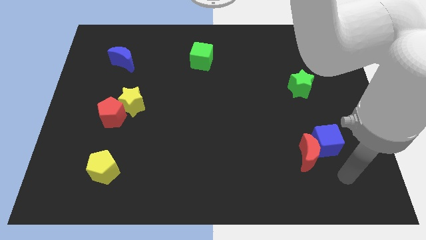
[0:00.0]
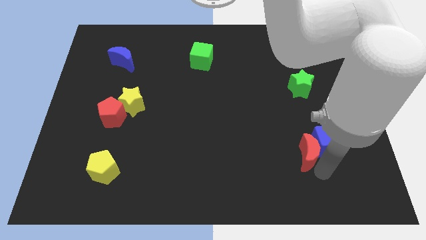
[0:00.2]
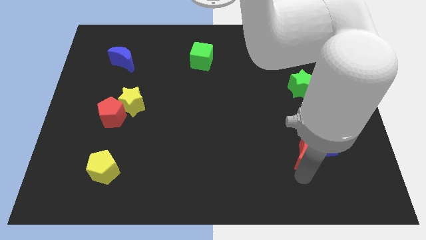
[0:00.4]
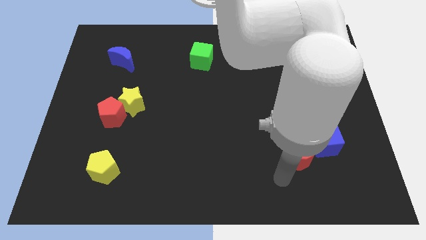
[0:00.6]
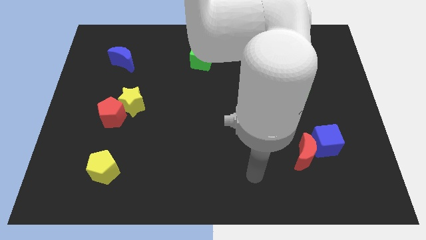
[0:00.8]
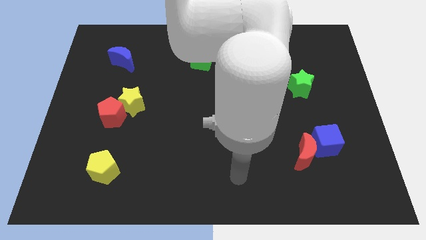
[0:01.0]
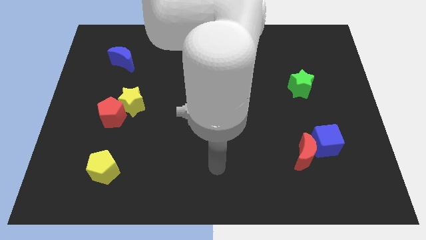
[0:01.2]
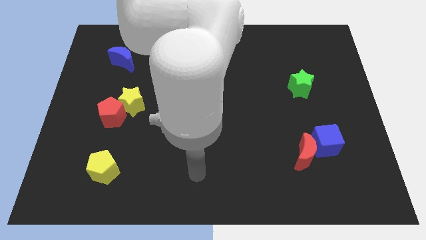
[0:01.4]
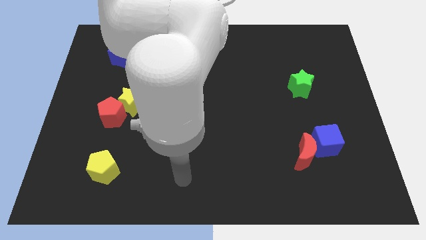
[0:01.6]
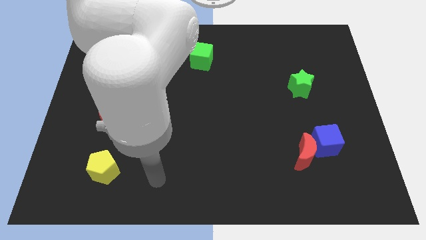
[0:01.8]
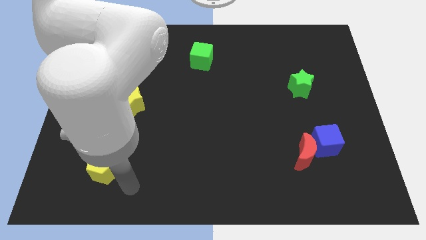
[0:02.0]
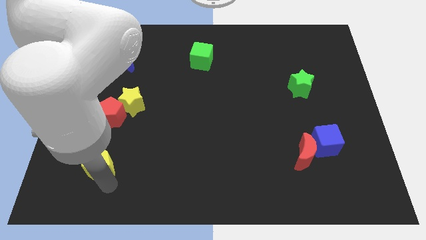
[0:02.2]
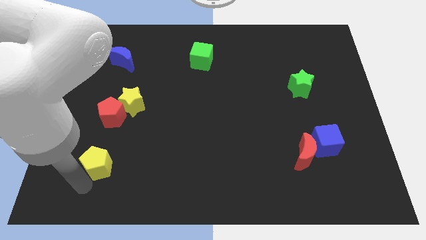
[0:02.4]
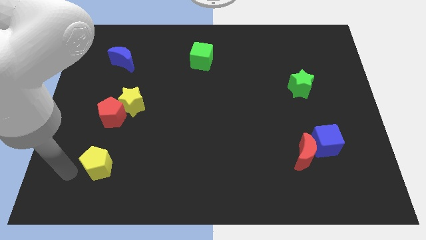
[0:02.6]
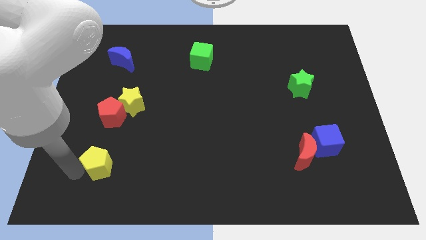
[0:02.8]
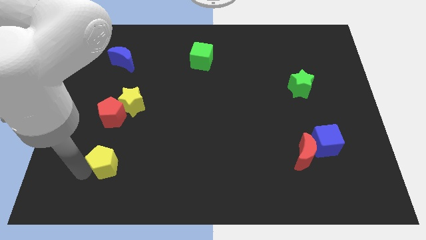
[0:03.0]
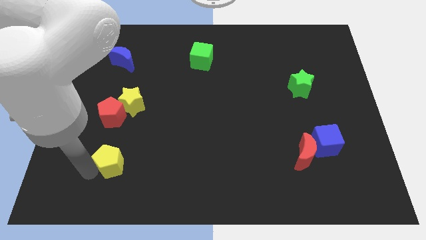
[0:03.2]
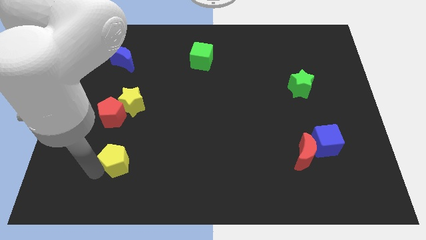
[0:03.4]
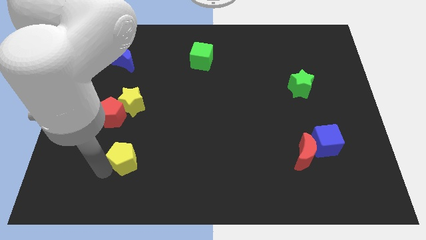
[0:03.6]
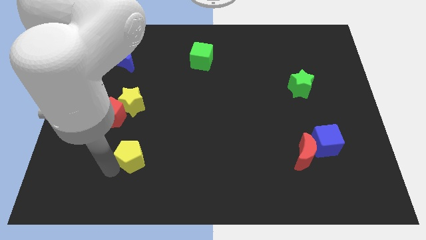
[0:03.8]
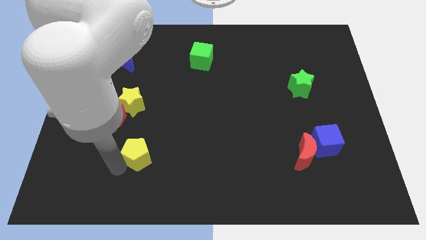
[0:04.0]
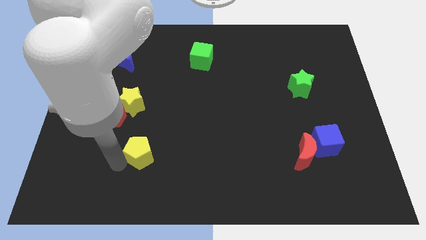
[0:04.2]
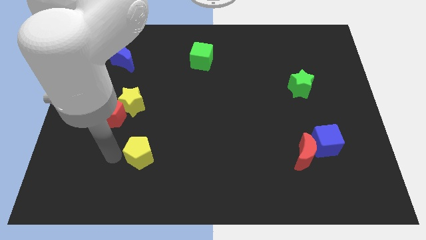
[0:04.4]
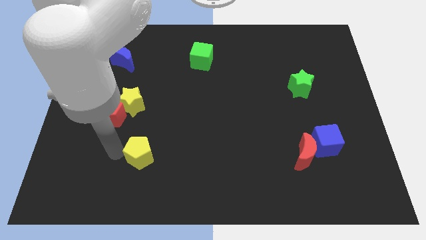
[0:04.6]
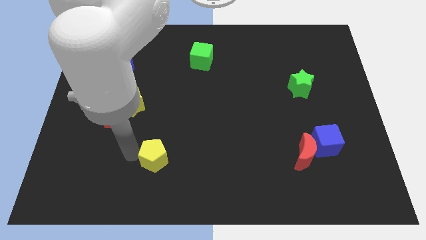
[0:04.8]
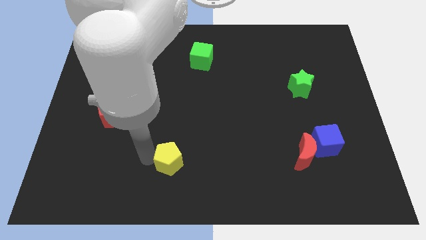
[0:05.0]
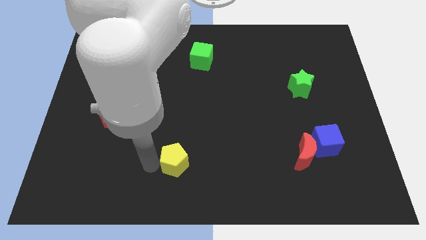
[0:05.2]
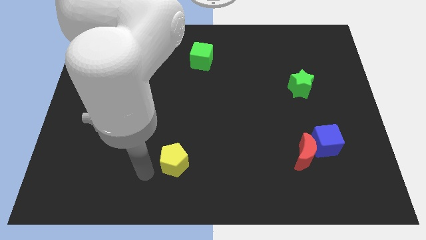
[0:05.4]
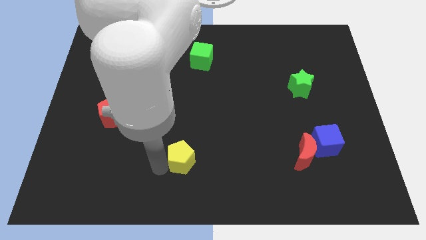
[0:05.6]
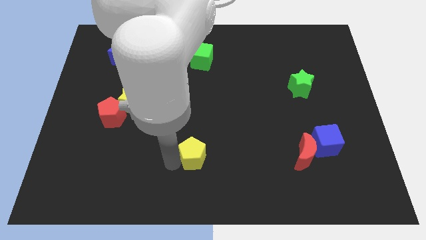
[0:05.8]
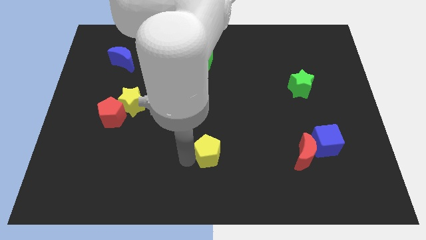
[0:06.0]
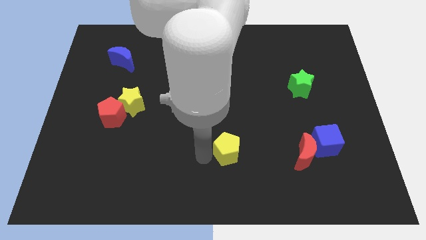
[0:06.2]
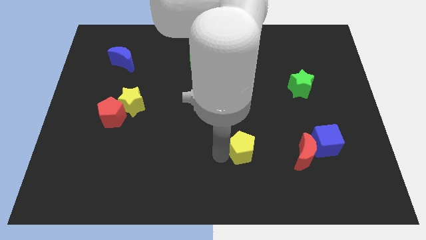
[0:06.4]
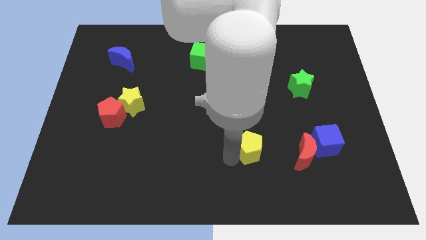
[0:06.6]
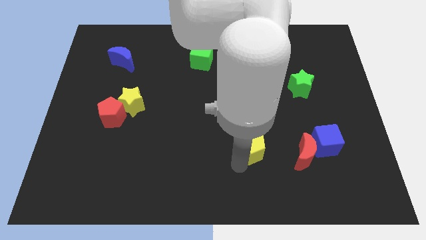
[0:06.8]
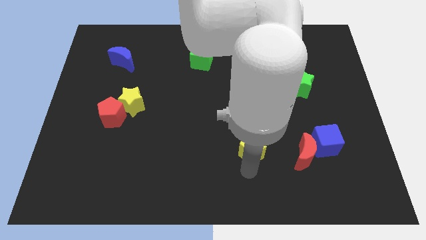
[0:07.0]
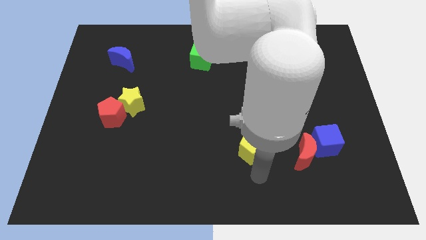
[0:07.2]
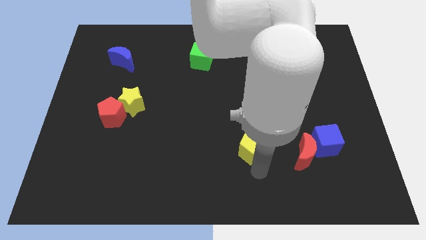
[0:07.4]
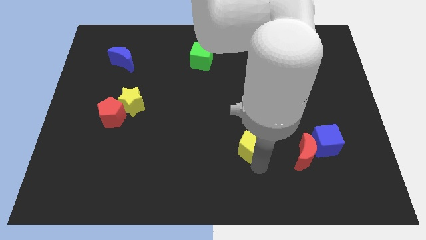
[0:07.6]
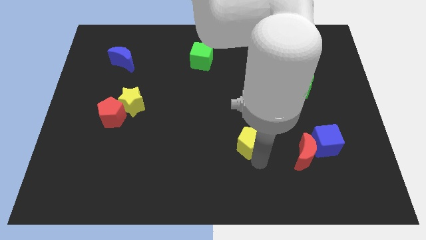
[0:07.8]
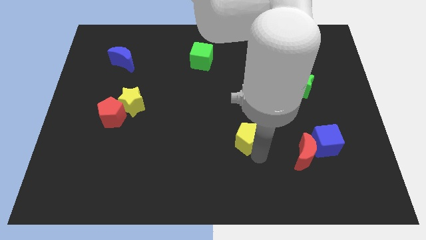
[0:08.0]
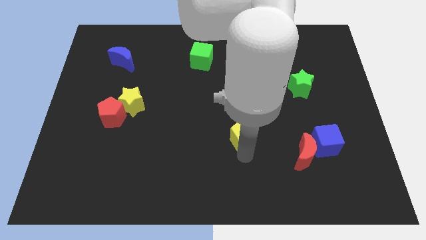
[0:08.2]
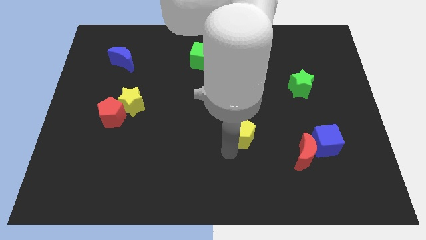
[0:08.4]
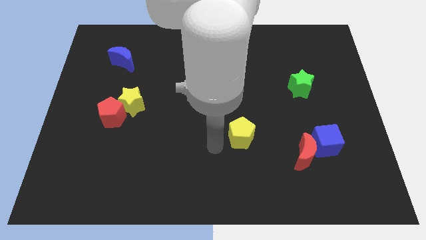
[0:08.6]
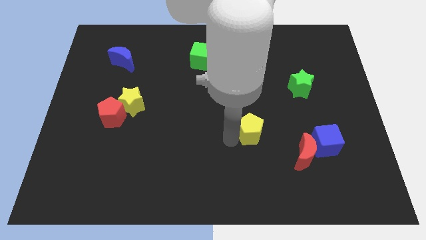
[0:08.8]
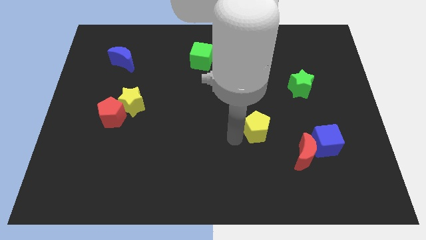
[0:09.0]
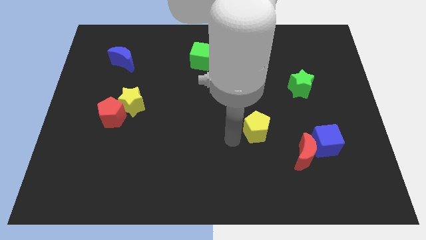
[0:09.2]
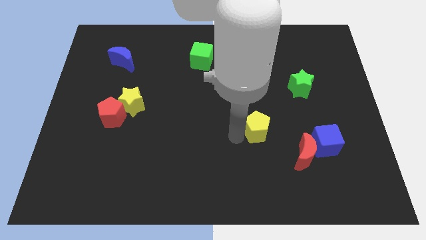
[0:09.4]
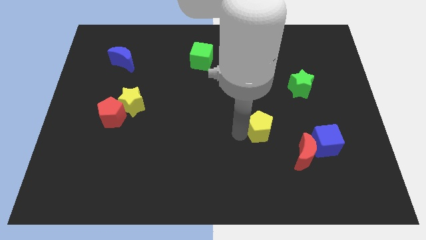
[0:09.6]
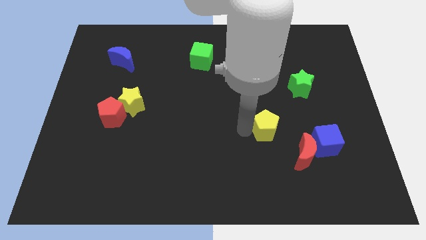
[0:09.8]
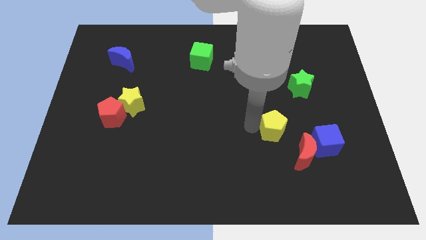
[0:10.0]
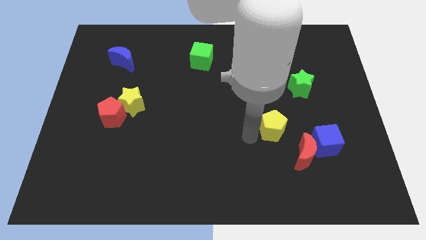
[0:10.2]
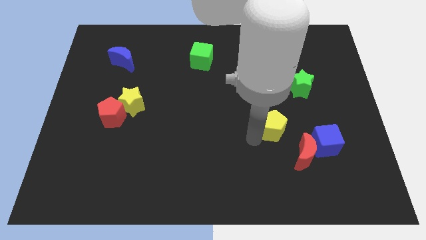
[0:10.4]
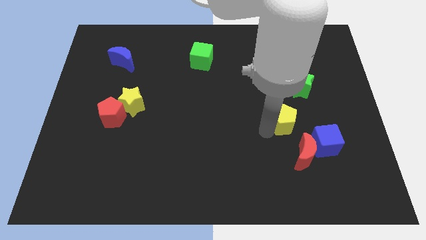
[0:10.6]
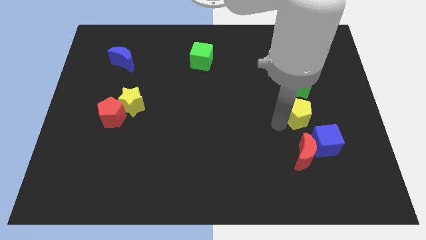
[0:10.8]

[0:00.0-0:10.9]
push the yellow pentagon to the top of the blue cube

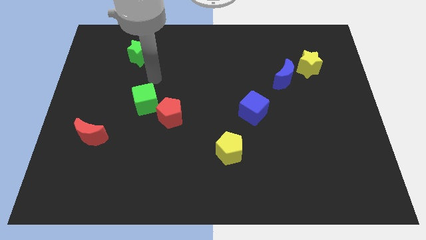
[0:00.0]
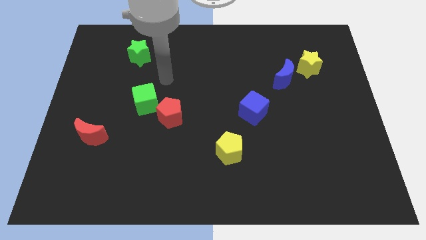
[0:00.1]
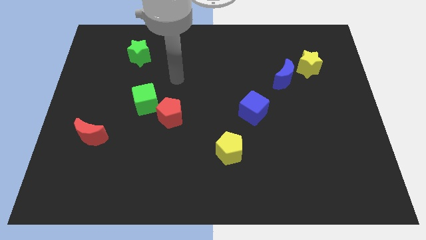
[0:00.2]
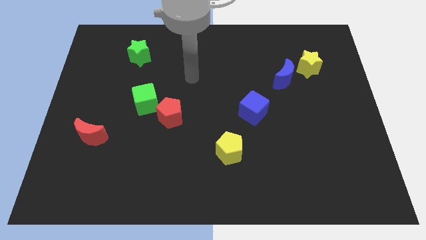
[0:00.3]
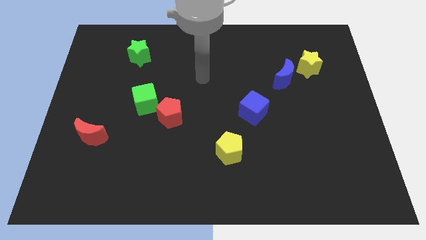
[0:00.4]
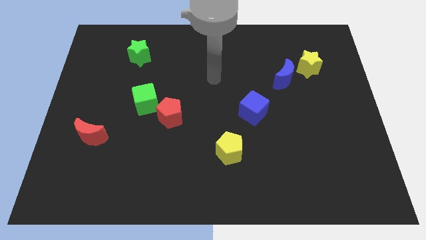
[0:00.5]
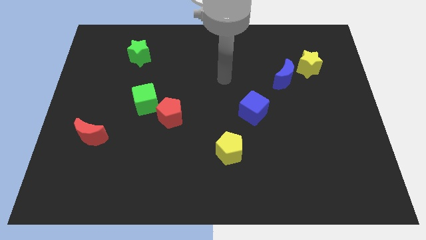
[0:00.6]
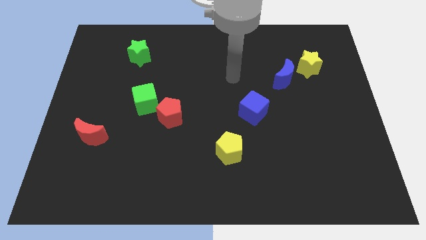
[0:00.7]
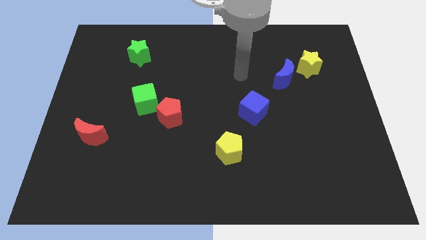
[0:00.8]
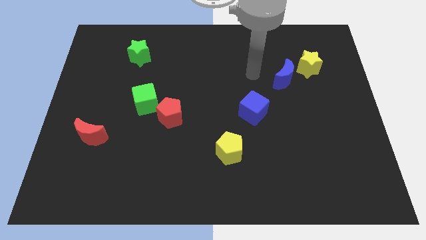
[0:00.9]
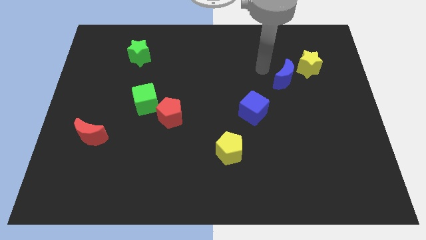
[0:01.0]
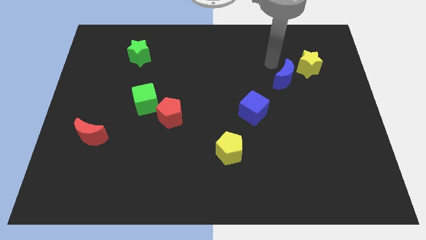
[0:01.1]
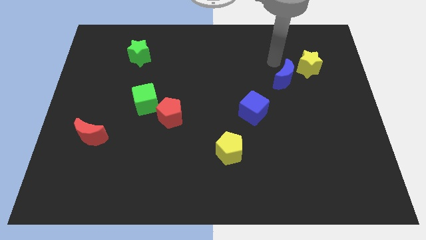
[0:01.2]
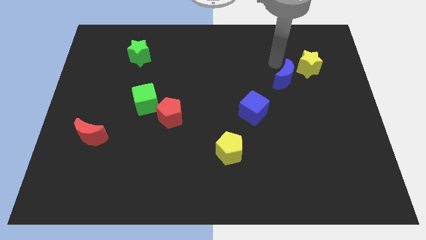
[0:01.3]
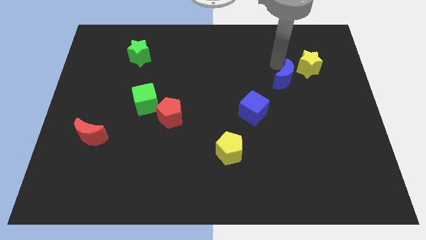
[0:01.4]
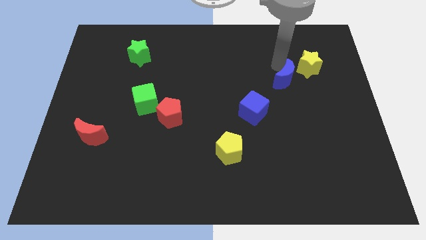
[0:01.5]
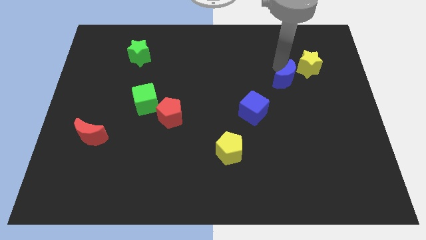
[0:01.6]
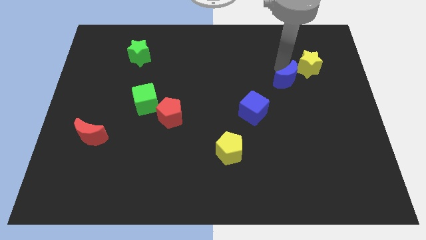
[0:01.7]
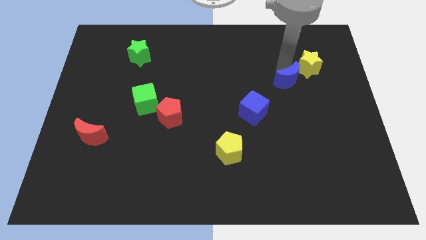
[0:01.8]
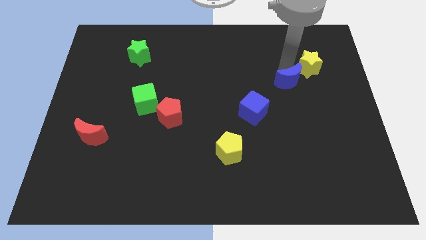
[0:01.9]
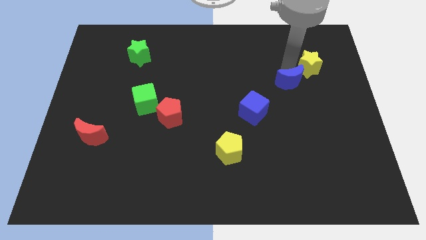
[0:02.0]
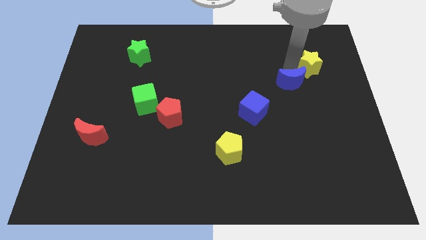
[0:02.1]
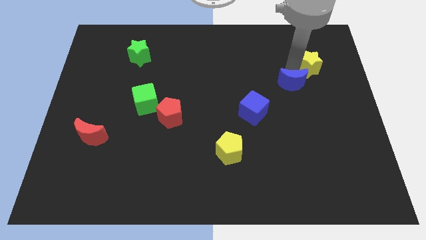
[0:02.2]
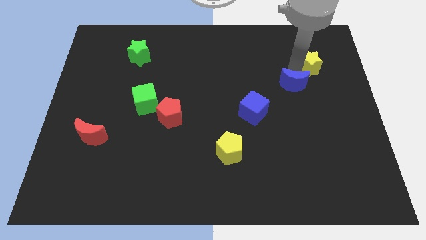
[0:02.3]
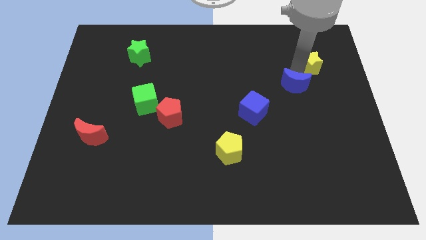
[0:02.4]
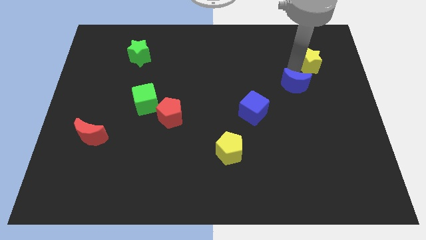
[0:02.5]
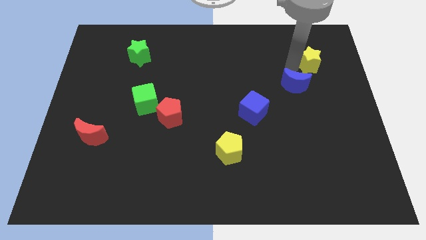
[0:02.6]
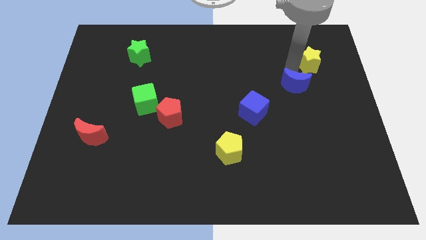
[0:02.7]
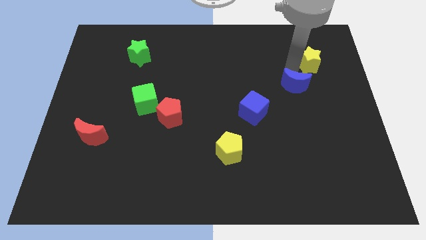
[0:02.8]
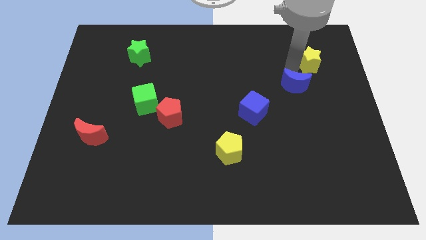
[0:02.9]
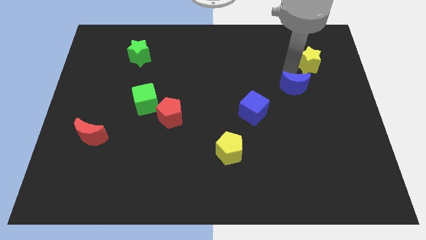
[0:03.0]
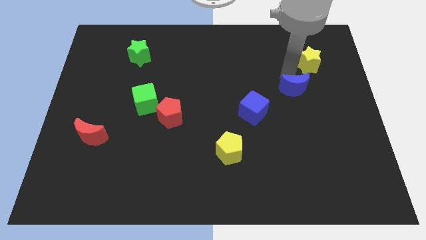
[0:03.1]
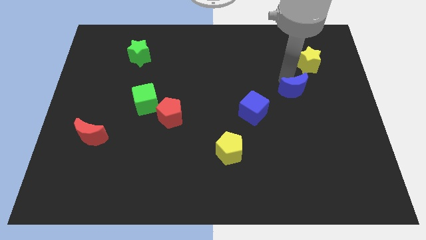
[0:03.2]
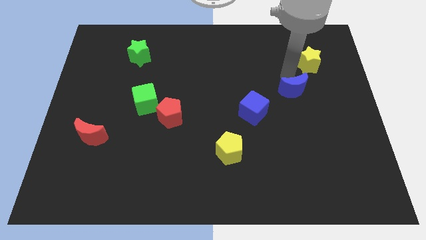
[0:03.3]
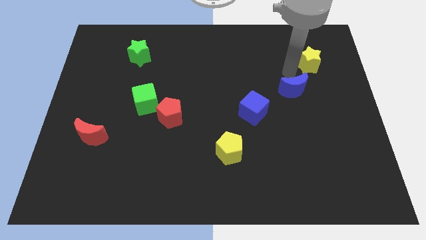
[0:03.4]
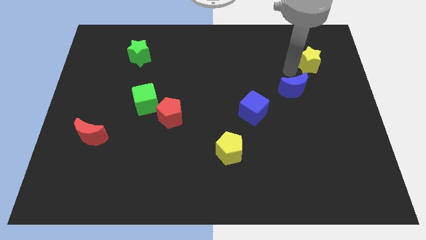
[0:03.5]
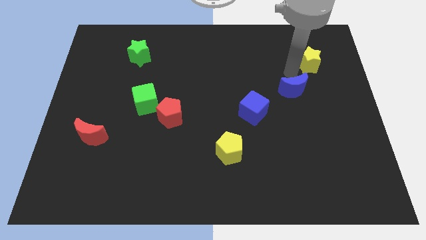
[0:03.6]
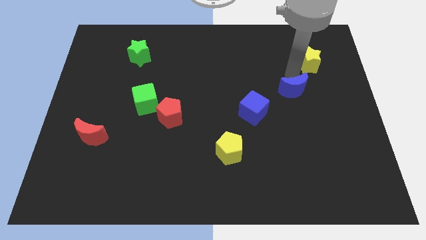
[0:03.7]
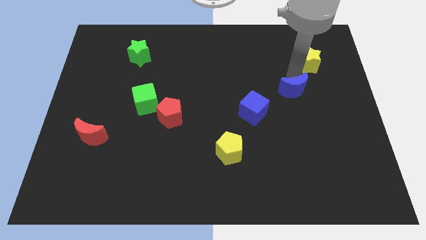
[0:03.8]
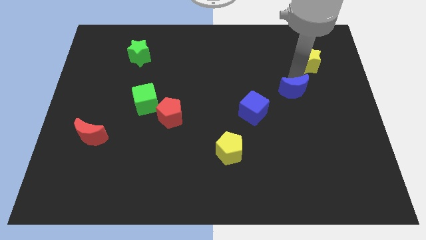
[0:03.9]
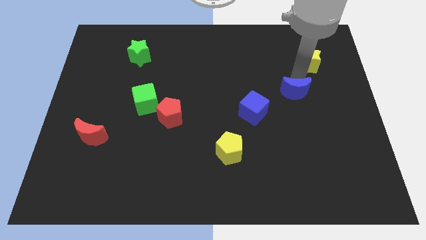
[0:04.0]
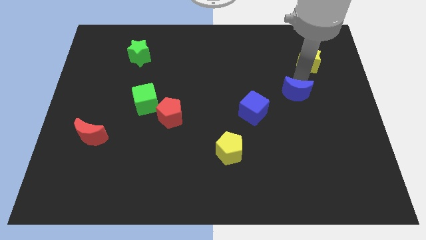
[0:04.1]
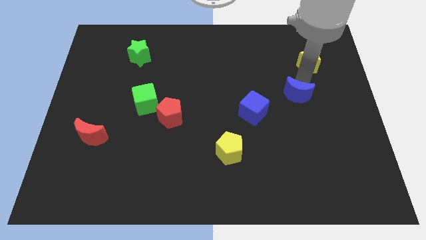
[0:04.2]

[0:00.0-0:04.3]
put the blue moon to the right of the blue cube
